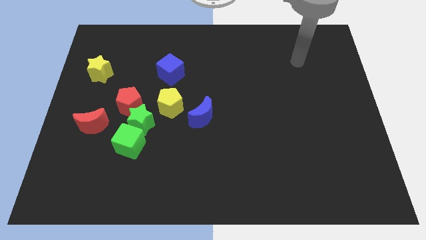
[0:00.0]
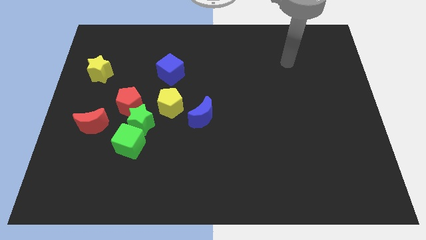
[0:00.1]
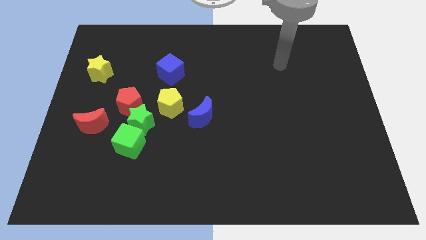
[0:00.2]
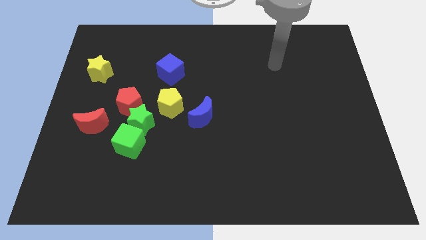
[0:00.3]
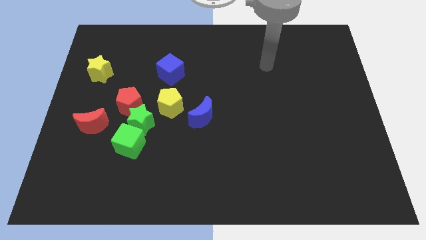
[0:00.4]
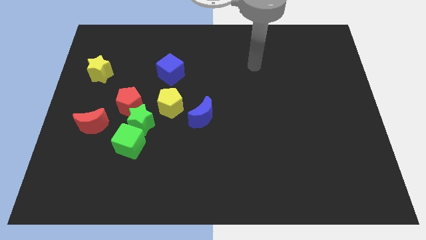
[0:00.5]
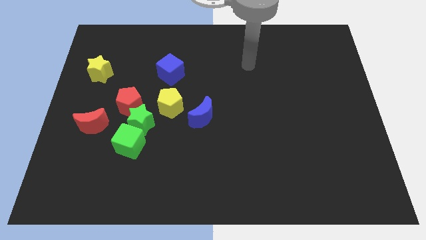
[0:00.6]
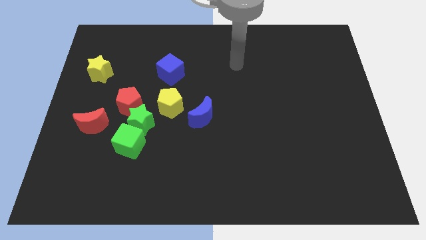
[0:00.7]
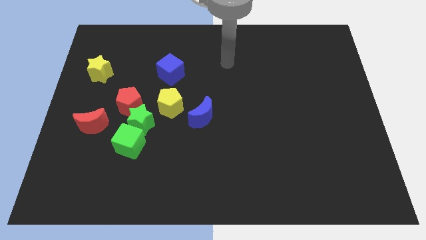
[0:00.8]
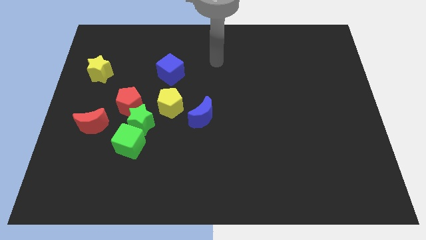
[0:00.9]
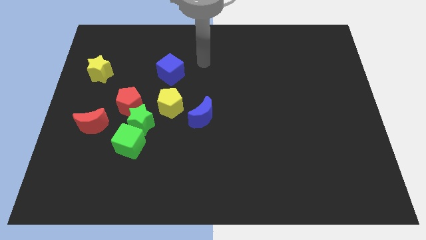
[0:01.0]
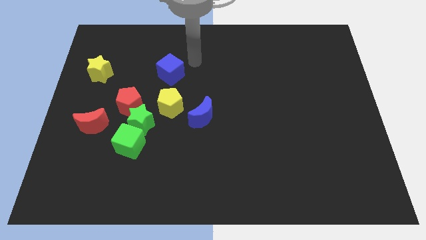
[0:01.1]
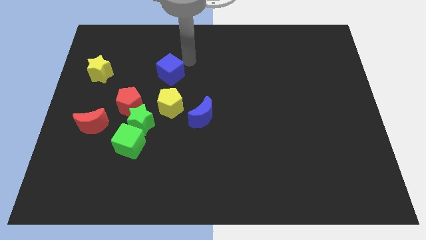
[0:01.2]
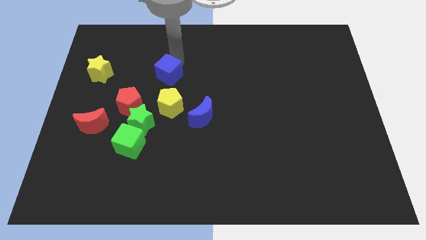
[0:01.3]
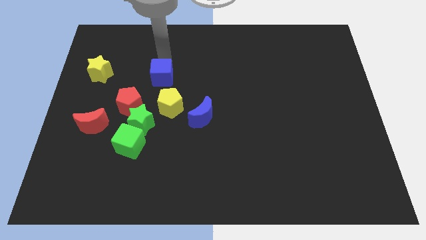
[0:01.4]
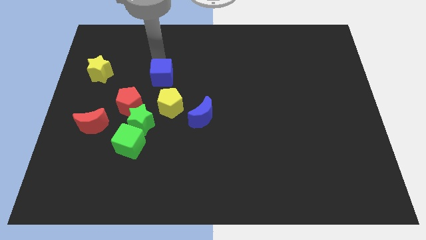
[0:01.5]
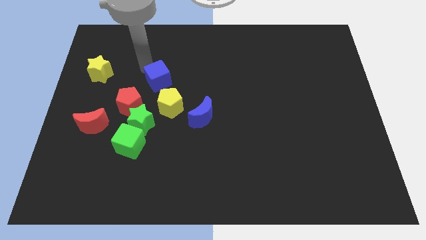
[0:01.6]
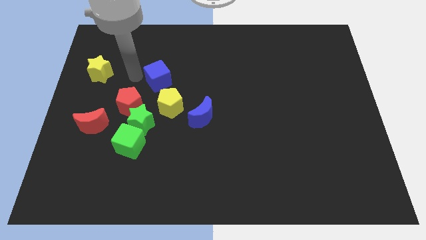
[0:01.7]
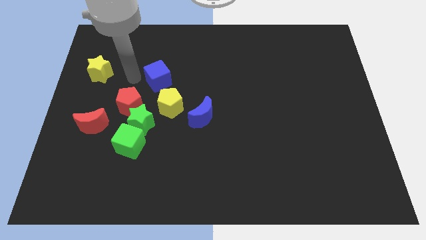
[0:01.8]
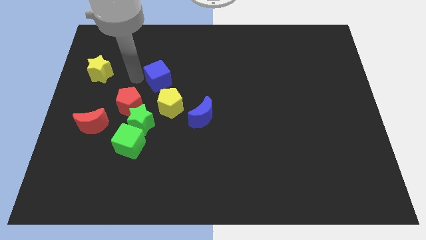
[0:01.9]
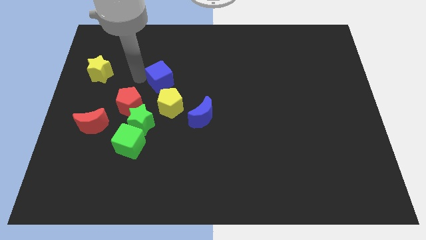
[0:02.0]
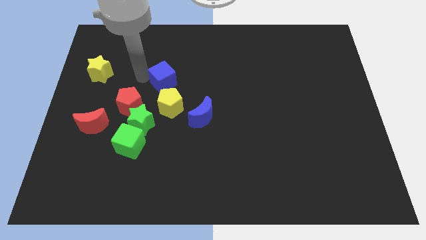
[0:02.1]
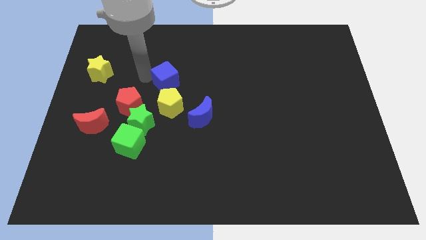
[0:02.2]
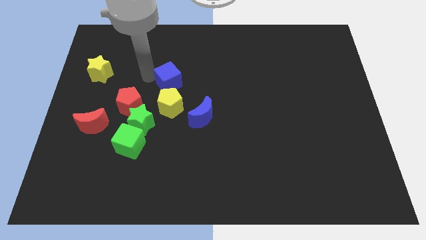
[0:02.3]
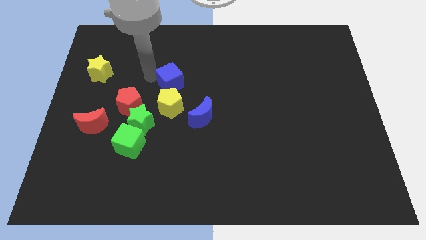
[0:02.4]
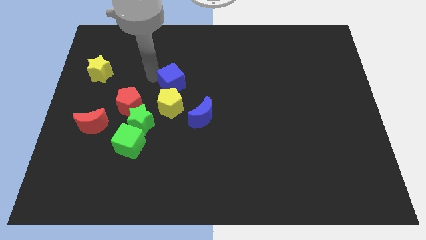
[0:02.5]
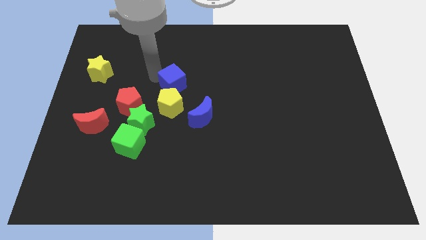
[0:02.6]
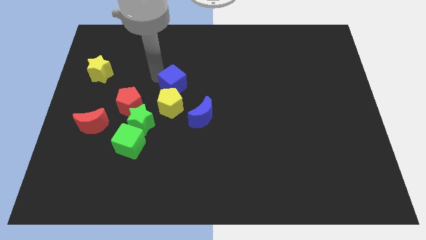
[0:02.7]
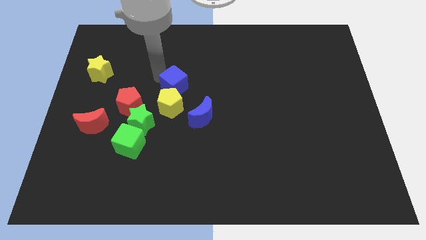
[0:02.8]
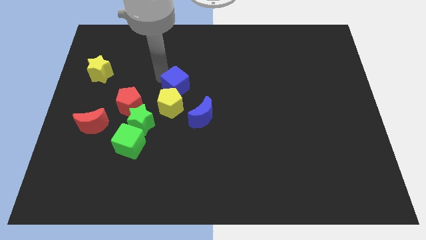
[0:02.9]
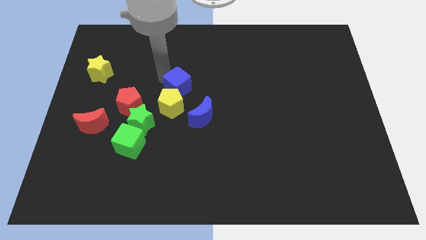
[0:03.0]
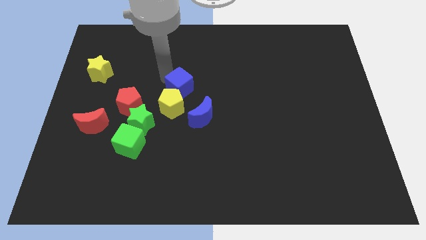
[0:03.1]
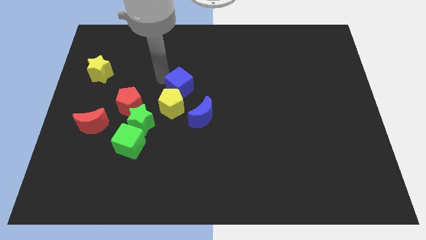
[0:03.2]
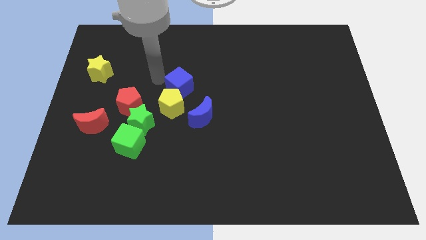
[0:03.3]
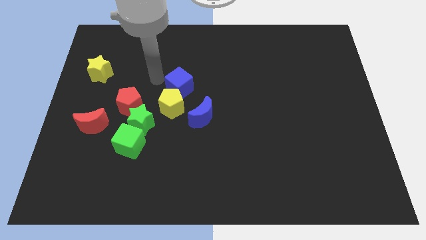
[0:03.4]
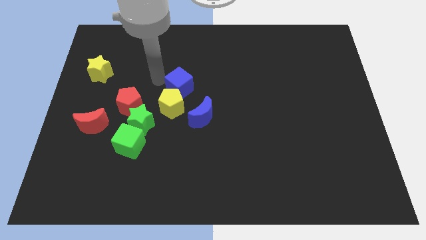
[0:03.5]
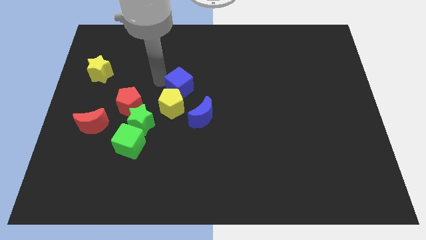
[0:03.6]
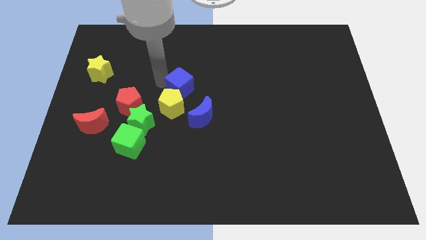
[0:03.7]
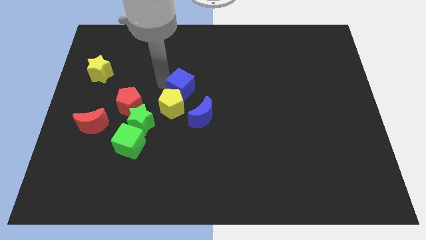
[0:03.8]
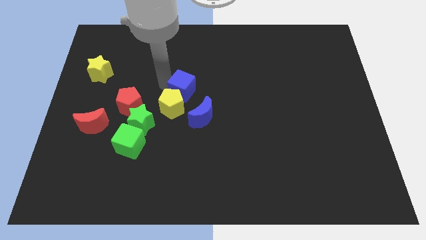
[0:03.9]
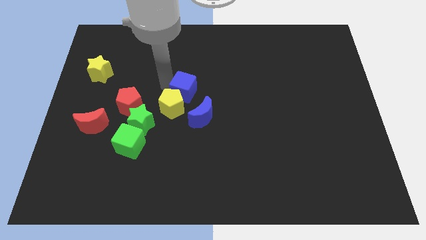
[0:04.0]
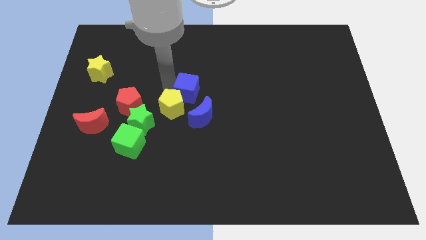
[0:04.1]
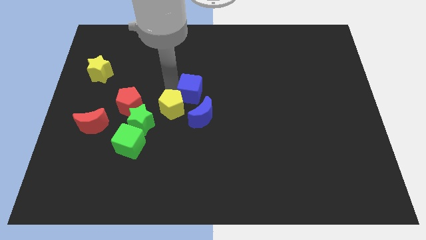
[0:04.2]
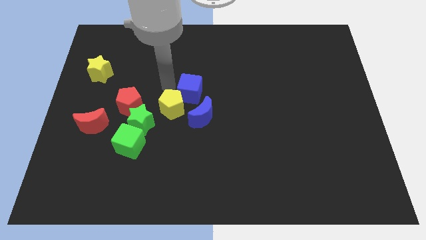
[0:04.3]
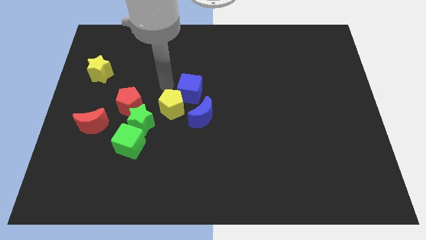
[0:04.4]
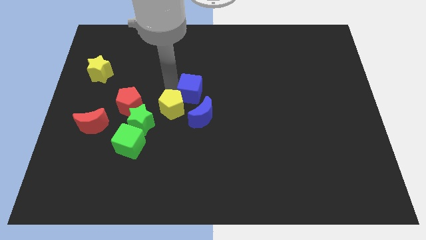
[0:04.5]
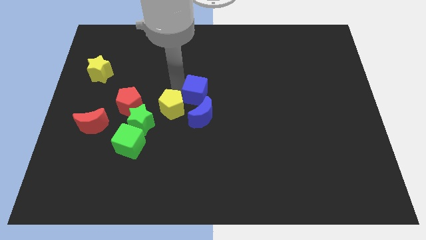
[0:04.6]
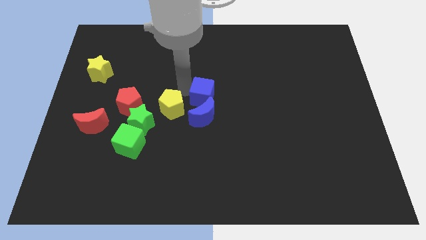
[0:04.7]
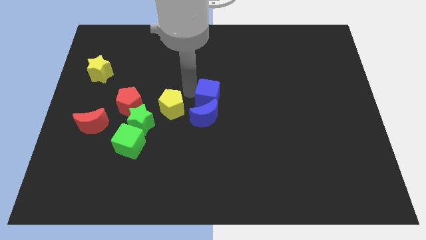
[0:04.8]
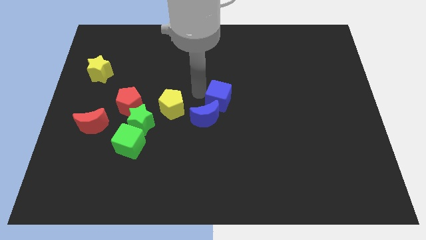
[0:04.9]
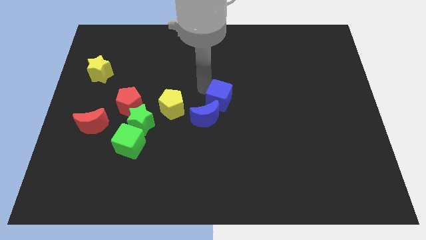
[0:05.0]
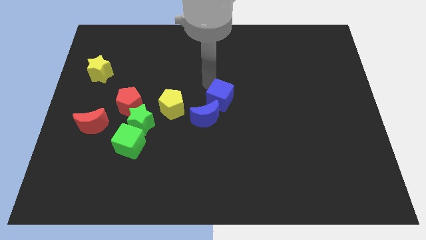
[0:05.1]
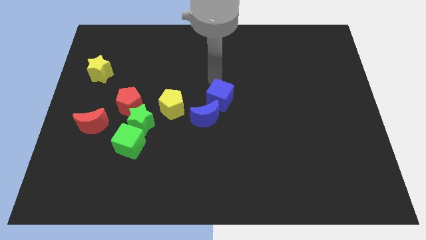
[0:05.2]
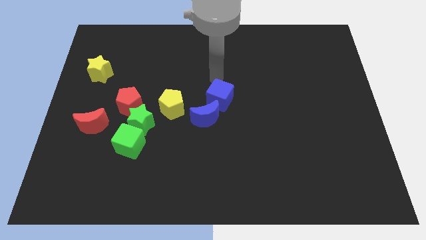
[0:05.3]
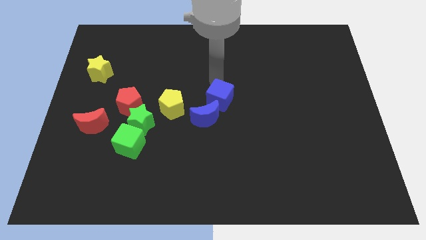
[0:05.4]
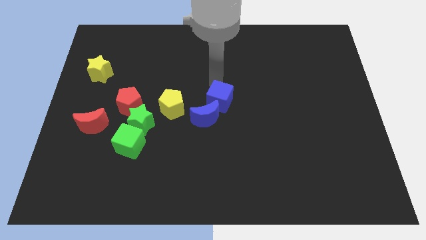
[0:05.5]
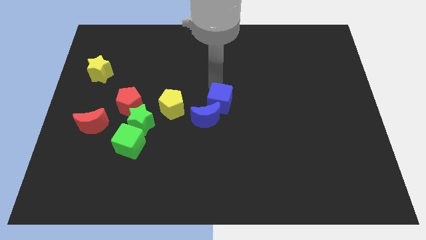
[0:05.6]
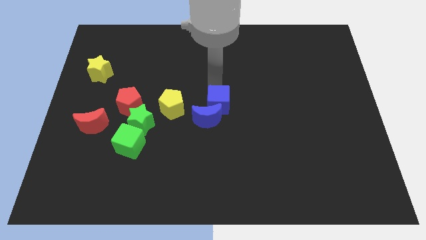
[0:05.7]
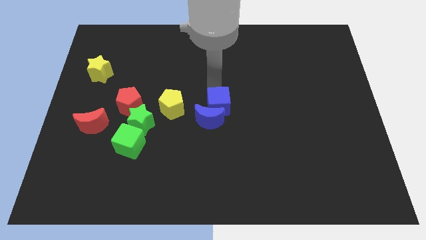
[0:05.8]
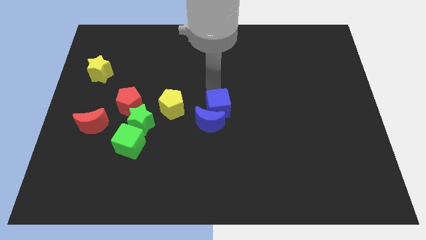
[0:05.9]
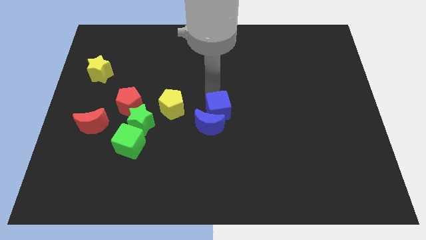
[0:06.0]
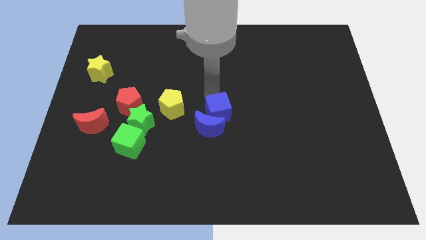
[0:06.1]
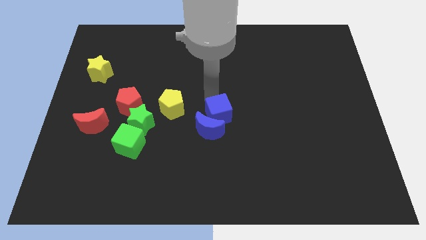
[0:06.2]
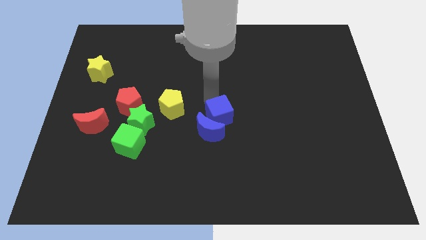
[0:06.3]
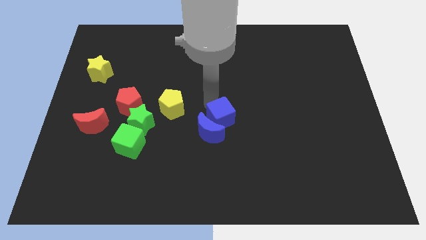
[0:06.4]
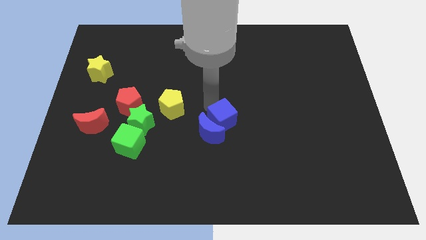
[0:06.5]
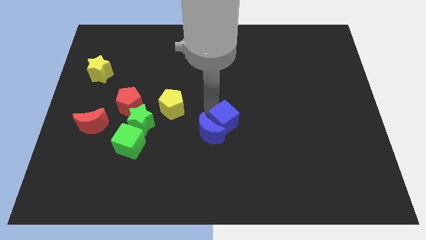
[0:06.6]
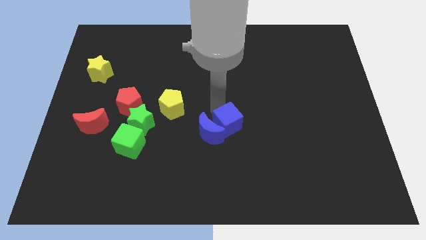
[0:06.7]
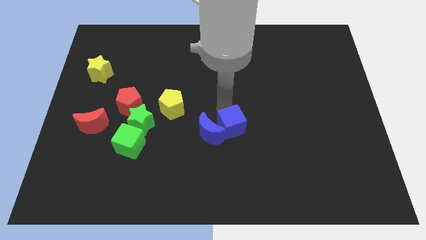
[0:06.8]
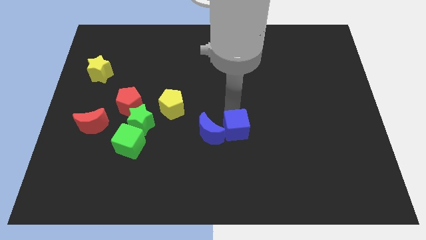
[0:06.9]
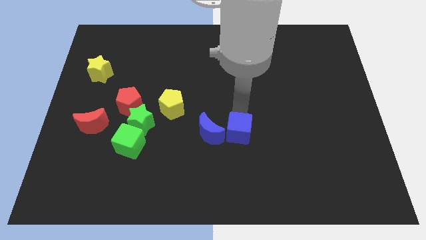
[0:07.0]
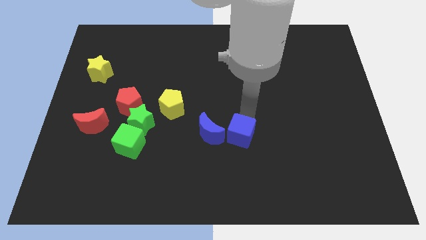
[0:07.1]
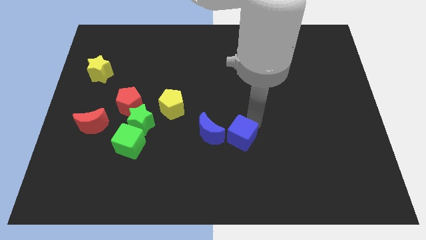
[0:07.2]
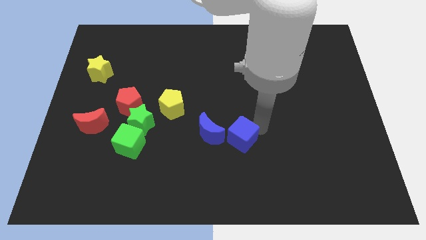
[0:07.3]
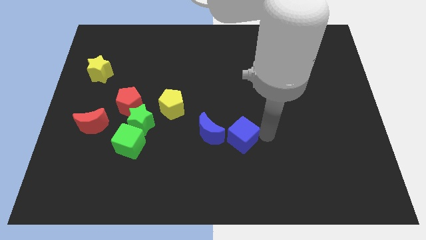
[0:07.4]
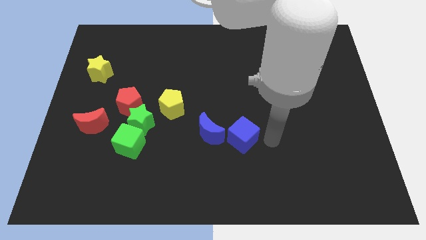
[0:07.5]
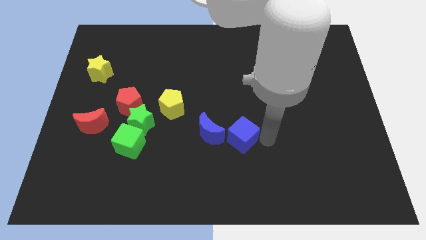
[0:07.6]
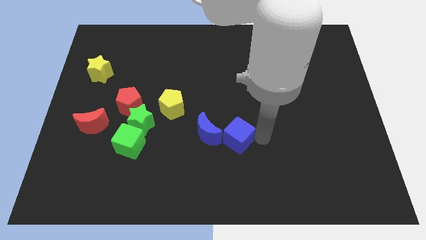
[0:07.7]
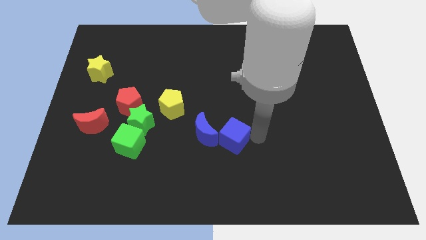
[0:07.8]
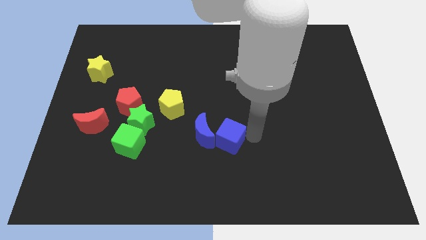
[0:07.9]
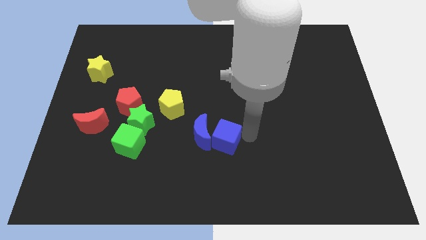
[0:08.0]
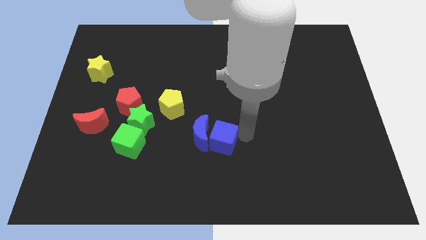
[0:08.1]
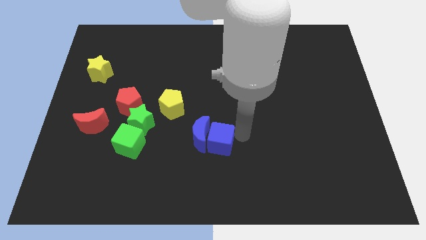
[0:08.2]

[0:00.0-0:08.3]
slightly move the blue cube downwards
